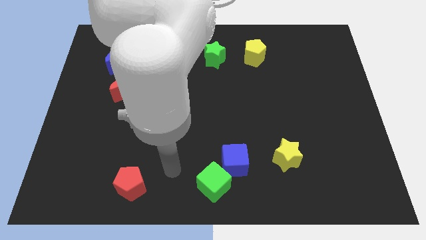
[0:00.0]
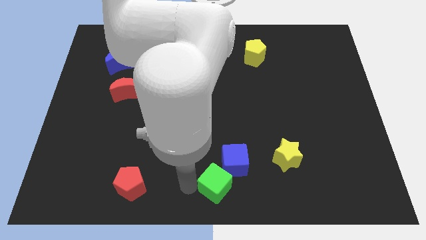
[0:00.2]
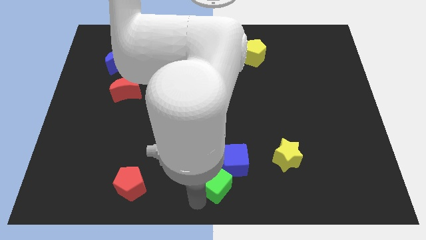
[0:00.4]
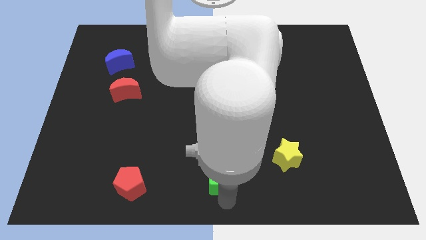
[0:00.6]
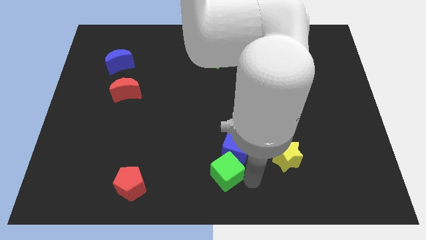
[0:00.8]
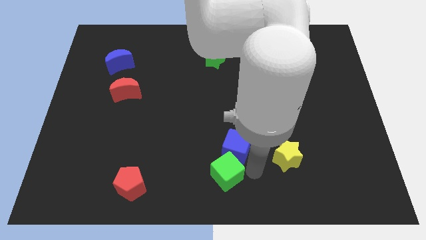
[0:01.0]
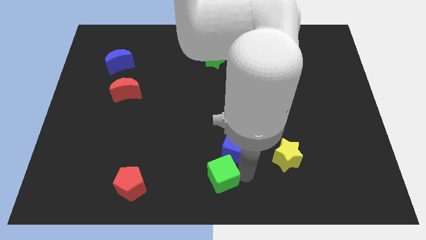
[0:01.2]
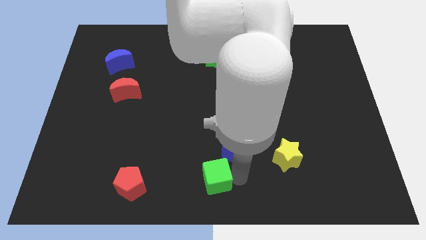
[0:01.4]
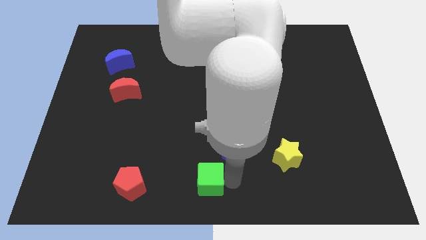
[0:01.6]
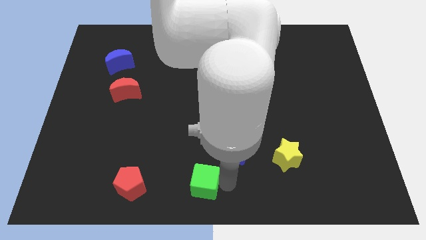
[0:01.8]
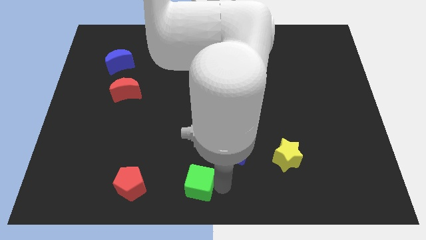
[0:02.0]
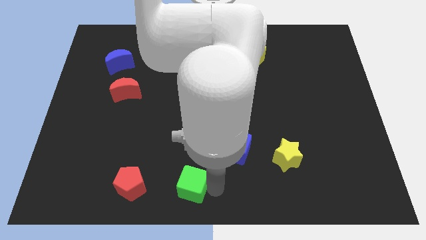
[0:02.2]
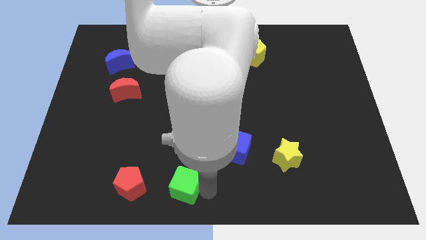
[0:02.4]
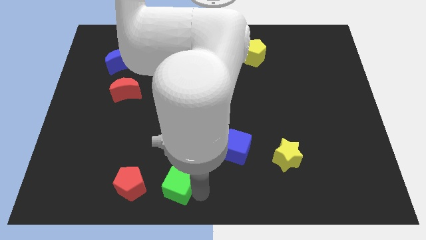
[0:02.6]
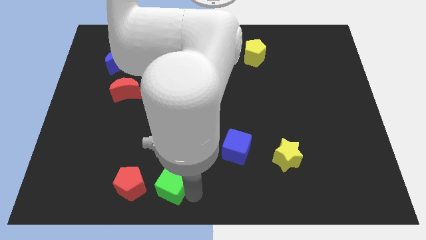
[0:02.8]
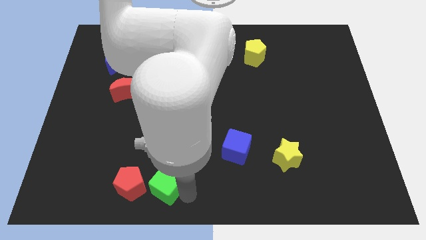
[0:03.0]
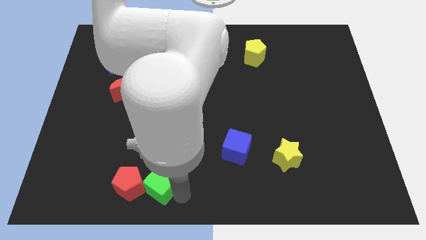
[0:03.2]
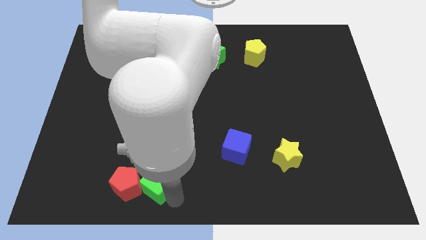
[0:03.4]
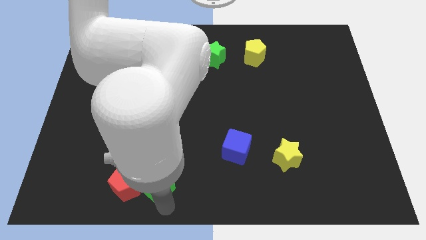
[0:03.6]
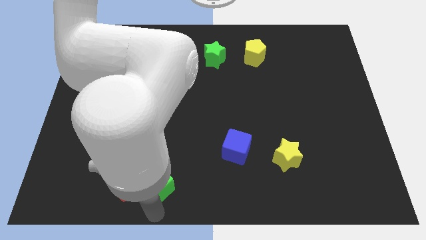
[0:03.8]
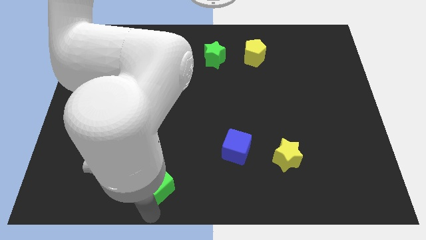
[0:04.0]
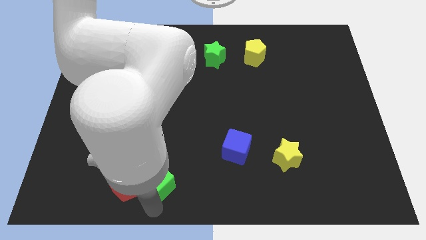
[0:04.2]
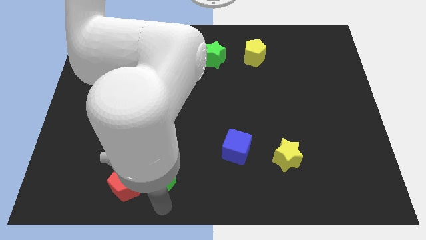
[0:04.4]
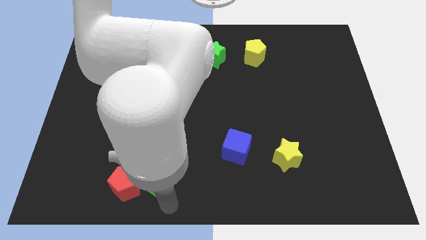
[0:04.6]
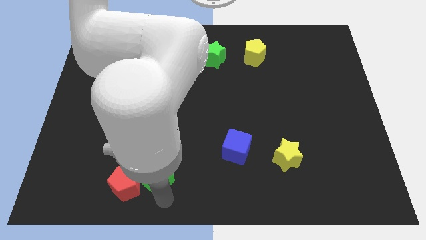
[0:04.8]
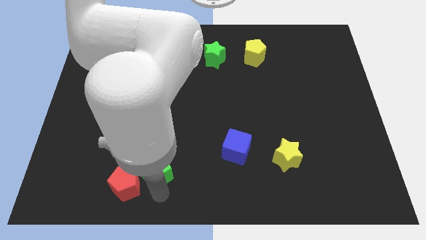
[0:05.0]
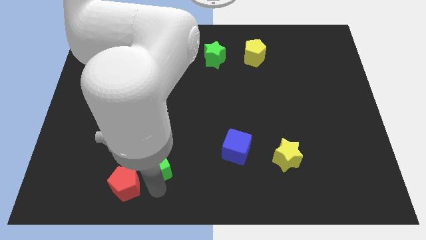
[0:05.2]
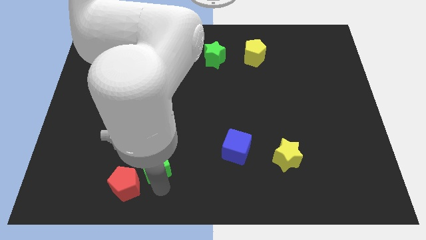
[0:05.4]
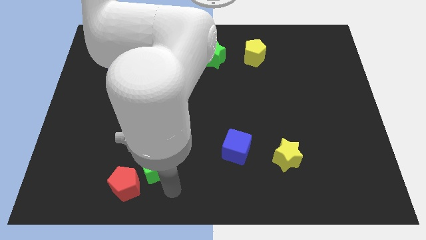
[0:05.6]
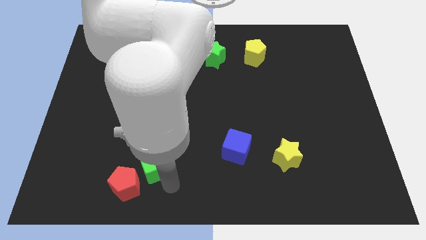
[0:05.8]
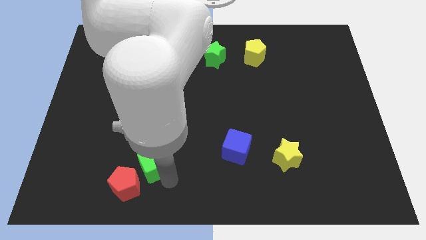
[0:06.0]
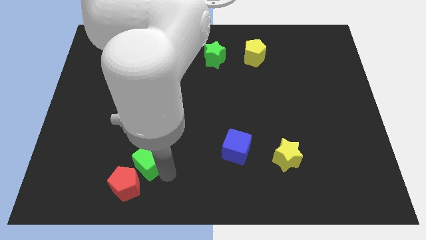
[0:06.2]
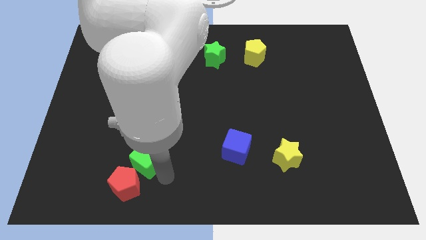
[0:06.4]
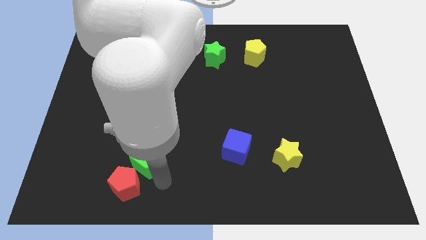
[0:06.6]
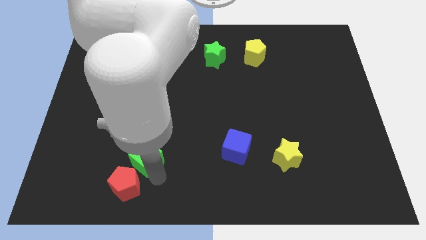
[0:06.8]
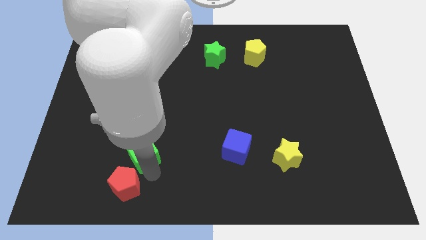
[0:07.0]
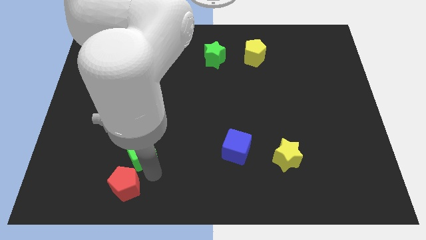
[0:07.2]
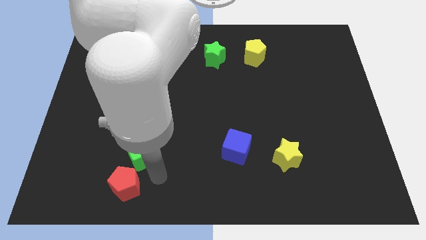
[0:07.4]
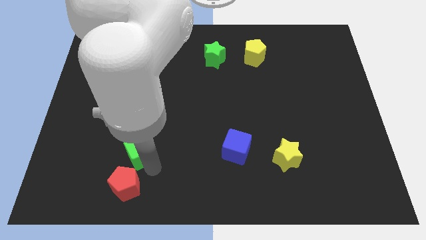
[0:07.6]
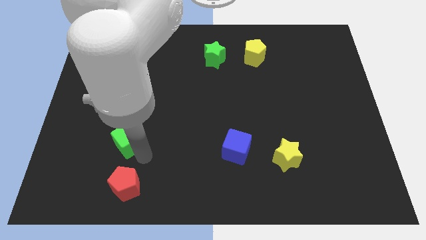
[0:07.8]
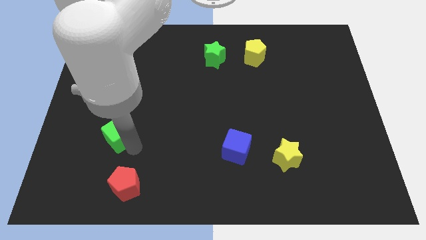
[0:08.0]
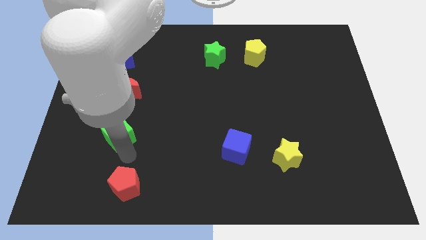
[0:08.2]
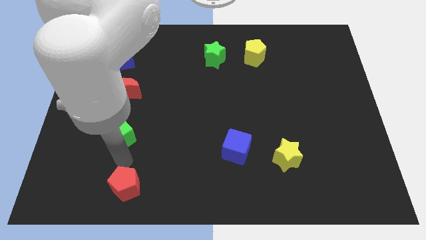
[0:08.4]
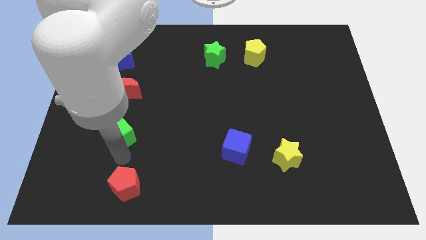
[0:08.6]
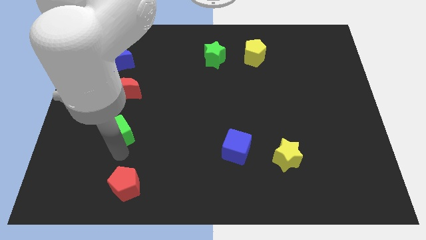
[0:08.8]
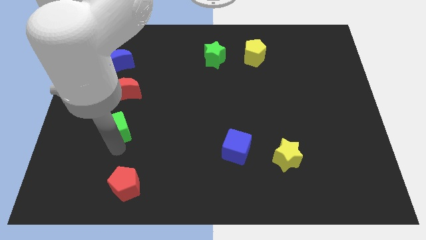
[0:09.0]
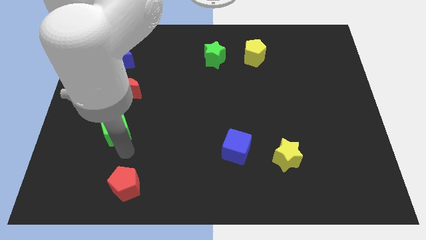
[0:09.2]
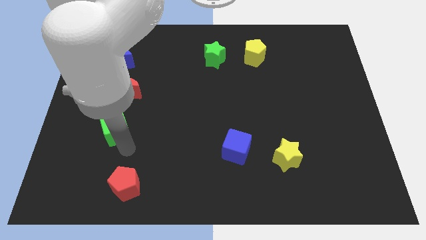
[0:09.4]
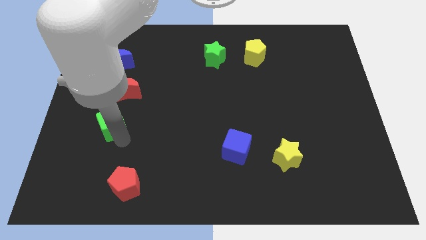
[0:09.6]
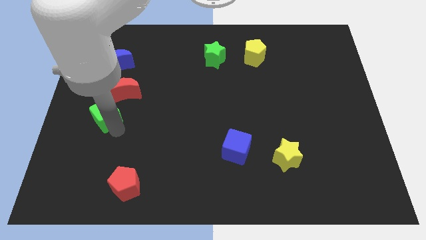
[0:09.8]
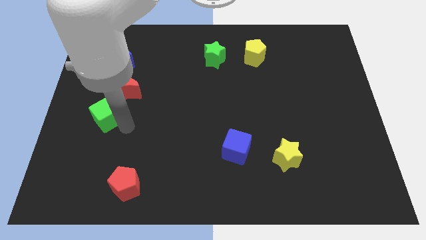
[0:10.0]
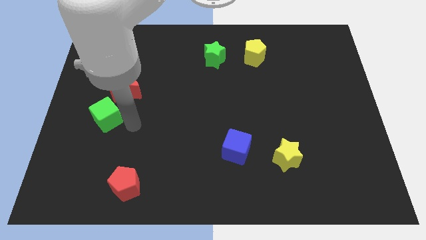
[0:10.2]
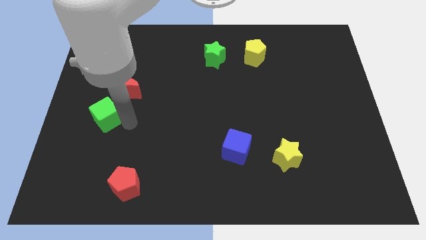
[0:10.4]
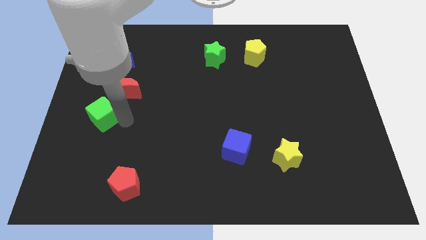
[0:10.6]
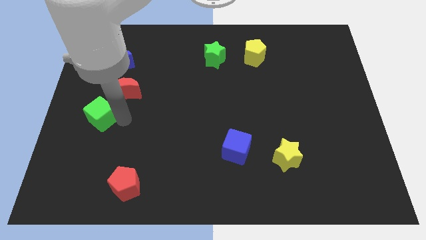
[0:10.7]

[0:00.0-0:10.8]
move the green cube to the left side of the board

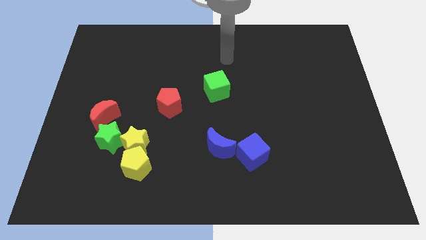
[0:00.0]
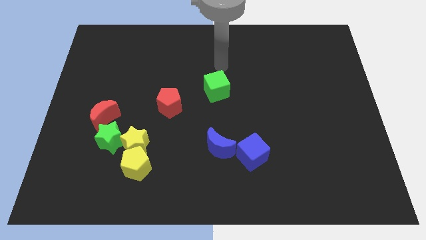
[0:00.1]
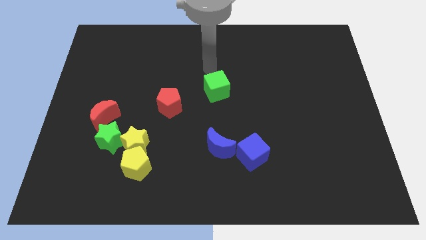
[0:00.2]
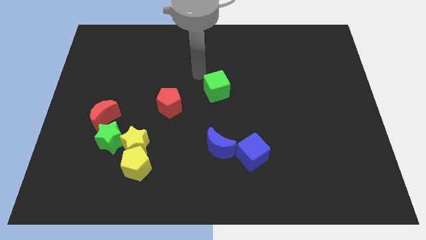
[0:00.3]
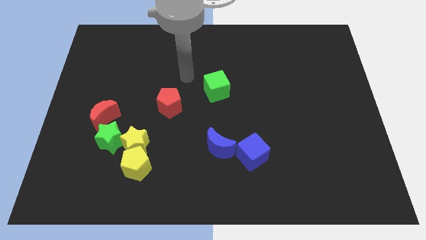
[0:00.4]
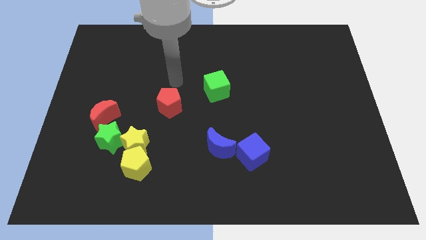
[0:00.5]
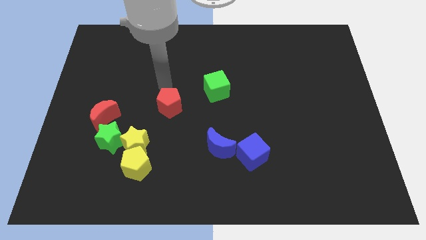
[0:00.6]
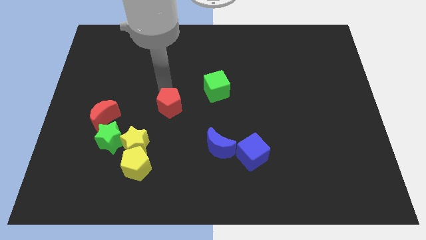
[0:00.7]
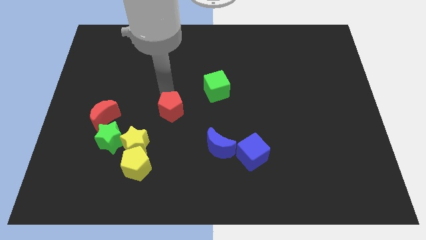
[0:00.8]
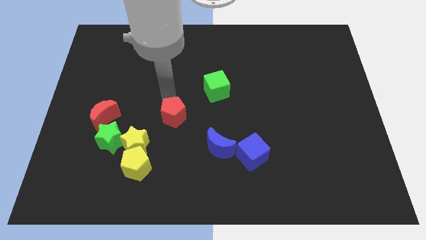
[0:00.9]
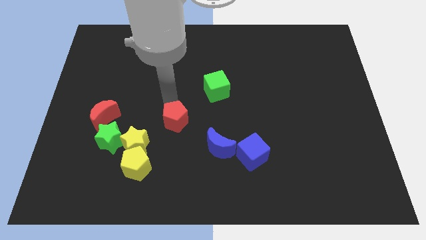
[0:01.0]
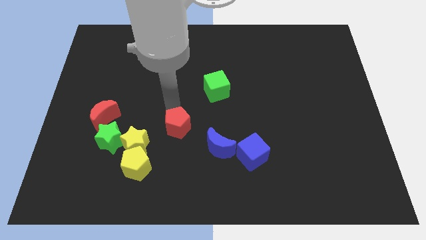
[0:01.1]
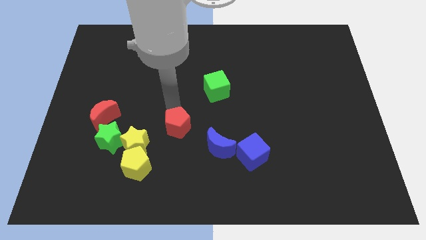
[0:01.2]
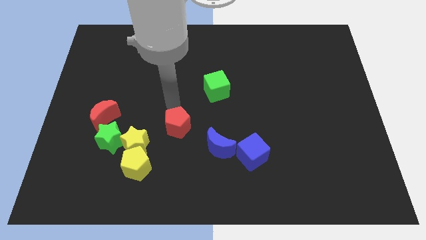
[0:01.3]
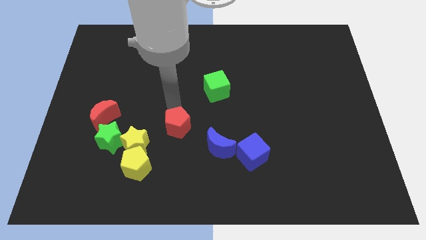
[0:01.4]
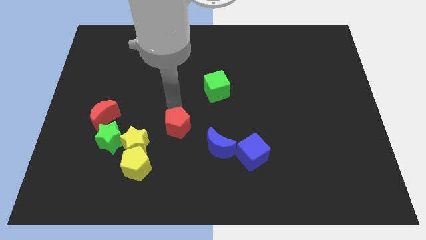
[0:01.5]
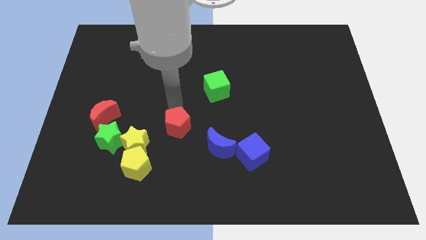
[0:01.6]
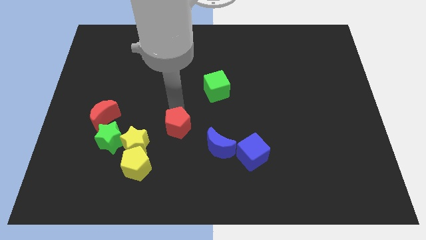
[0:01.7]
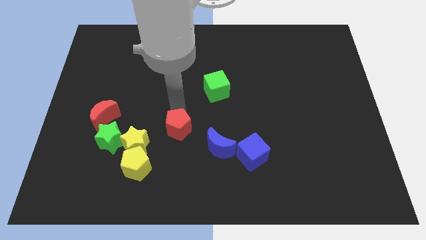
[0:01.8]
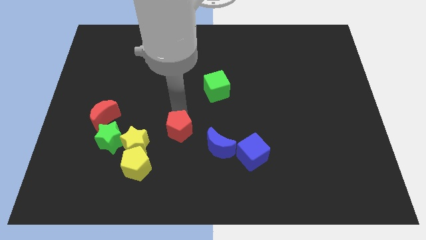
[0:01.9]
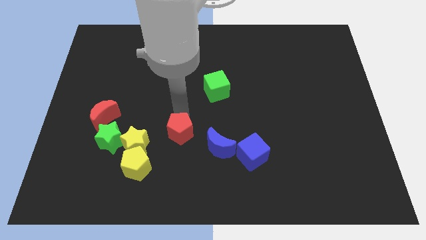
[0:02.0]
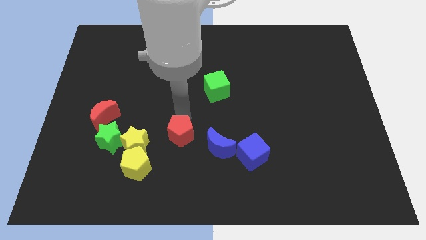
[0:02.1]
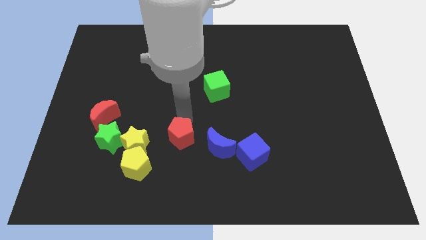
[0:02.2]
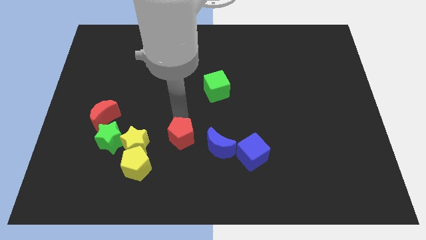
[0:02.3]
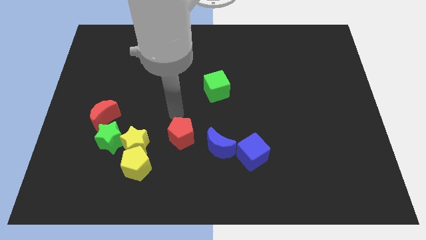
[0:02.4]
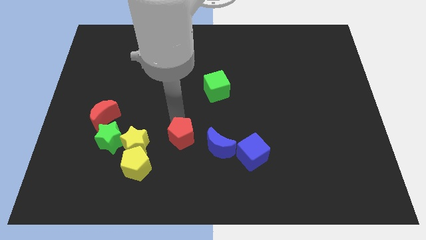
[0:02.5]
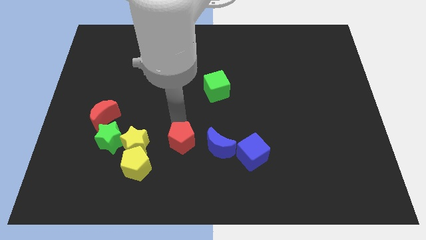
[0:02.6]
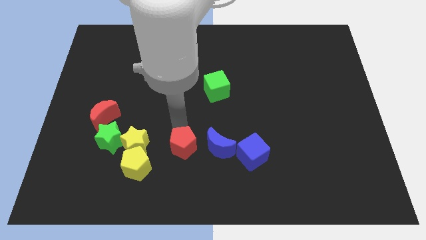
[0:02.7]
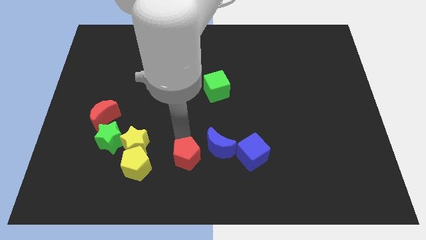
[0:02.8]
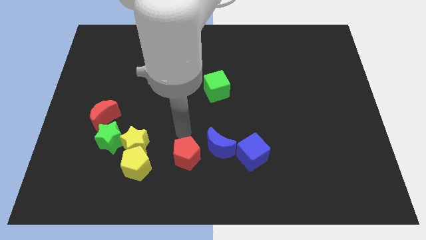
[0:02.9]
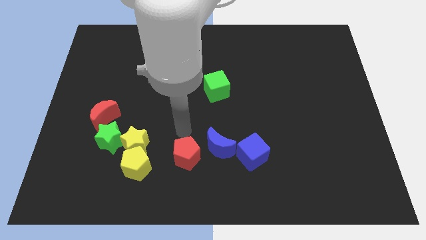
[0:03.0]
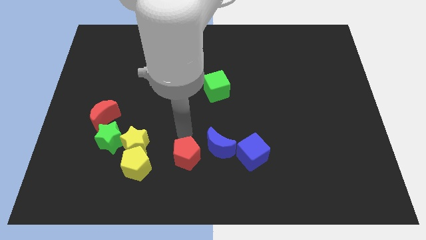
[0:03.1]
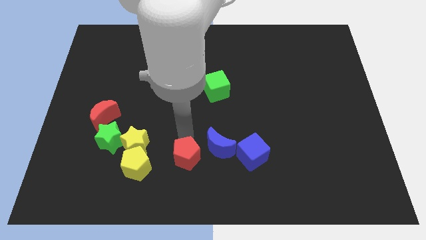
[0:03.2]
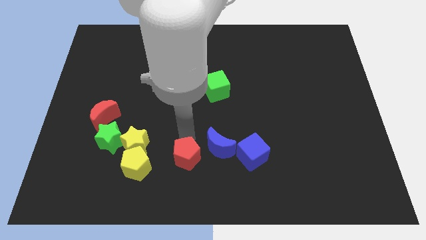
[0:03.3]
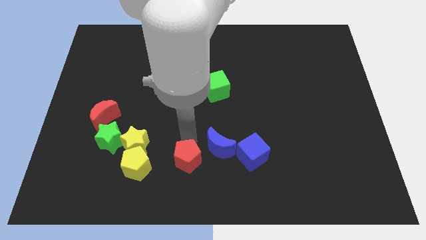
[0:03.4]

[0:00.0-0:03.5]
slide the red pentagon to the bottom side
